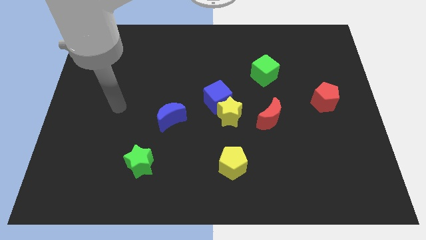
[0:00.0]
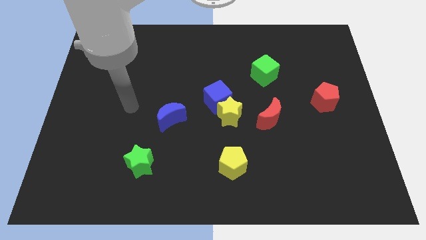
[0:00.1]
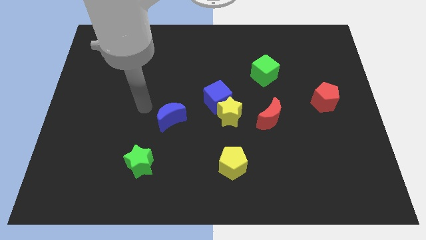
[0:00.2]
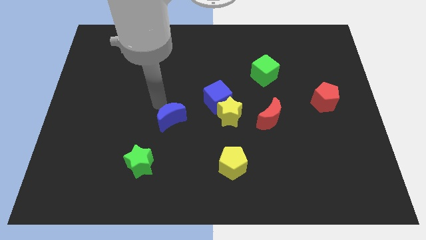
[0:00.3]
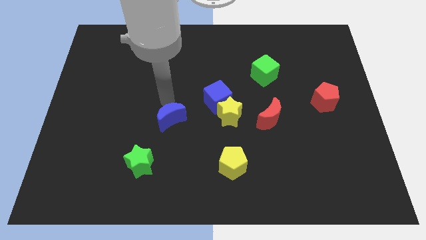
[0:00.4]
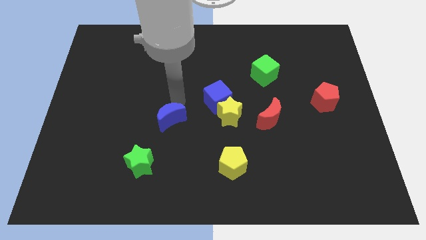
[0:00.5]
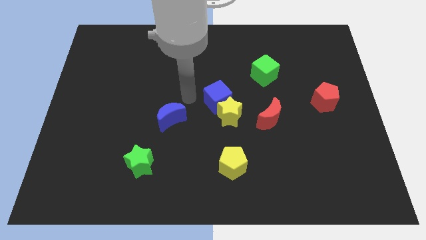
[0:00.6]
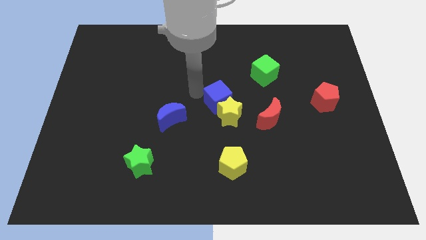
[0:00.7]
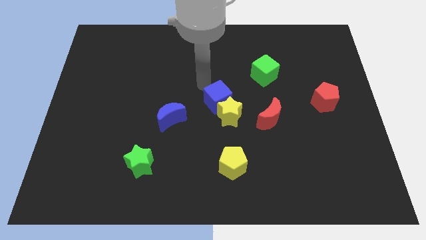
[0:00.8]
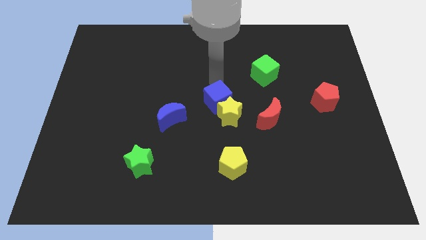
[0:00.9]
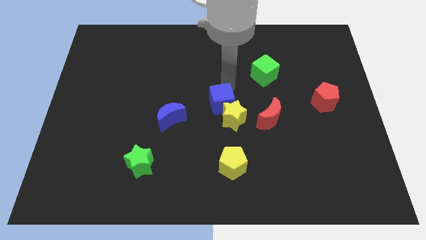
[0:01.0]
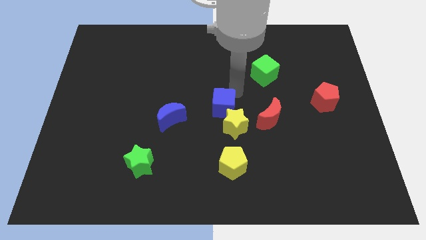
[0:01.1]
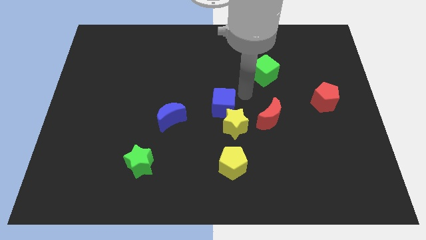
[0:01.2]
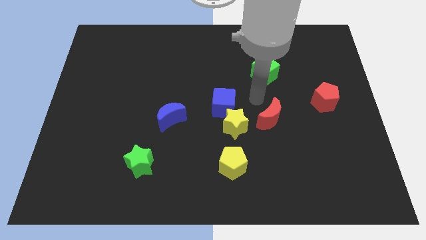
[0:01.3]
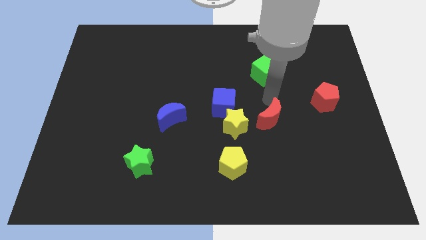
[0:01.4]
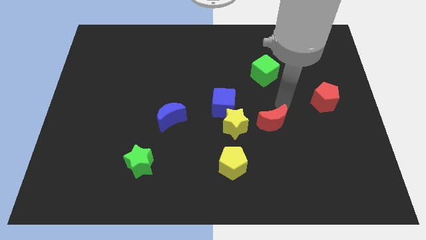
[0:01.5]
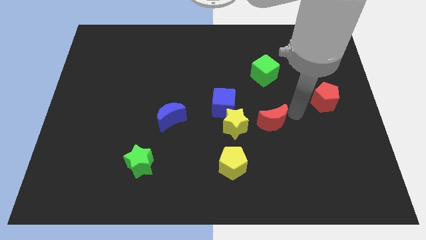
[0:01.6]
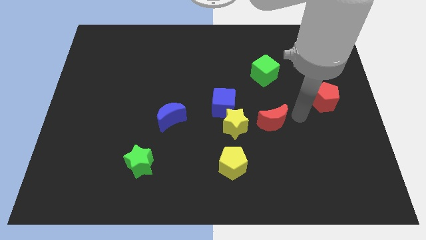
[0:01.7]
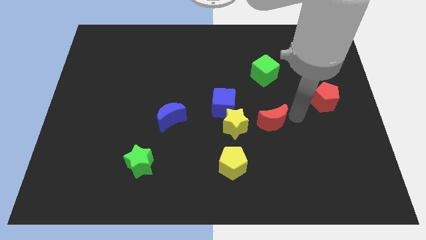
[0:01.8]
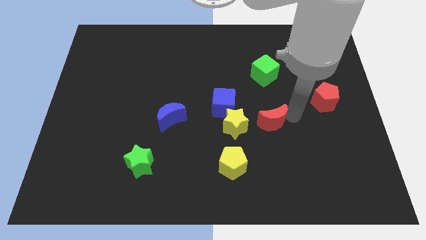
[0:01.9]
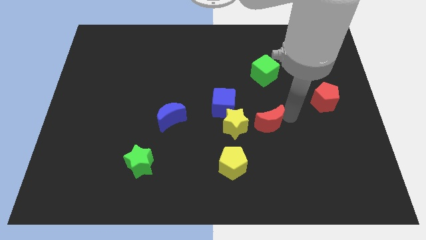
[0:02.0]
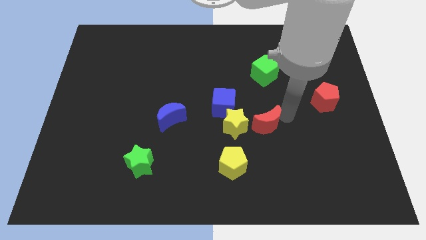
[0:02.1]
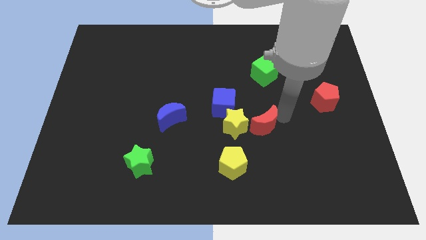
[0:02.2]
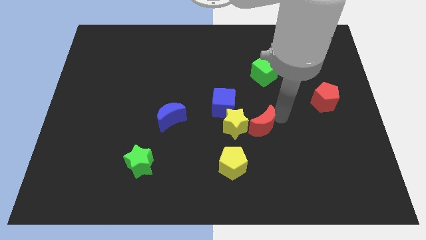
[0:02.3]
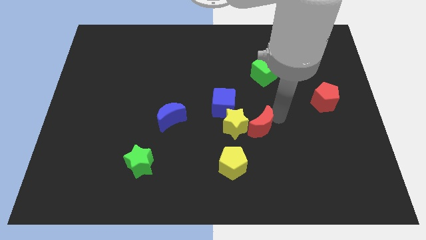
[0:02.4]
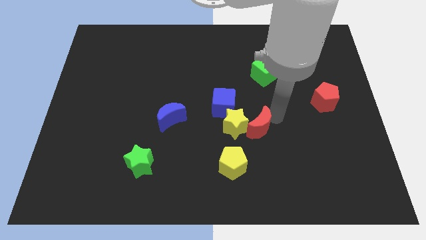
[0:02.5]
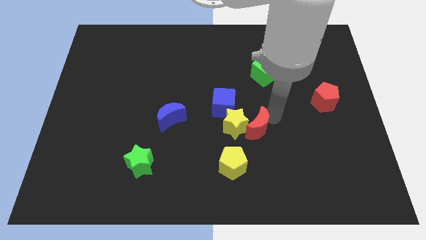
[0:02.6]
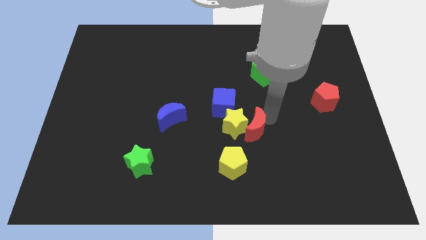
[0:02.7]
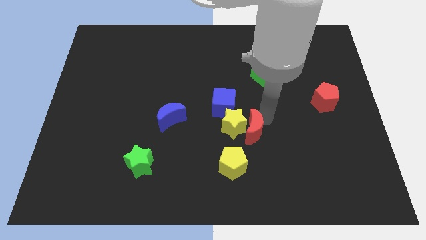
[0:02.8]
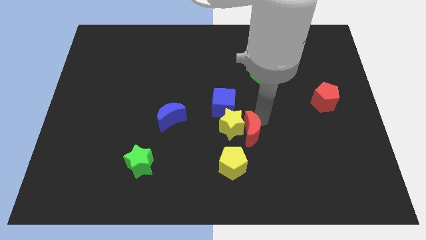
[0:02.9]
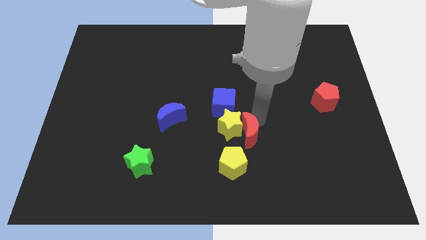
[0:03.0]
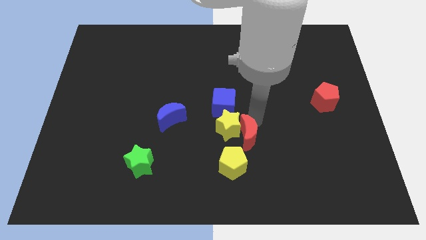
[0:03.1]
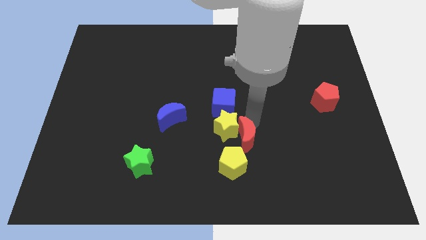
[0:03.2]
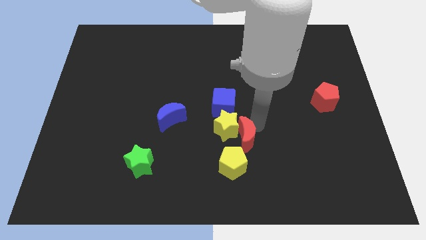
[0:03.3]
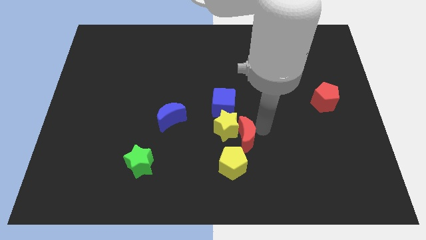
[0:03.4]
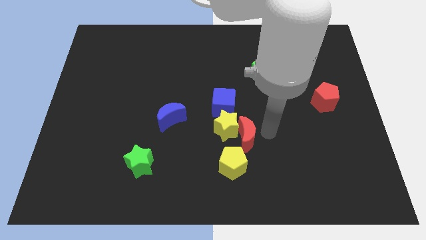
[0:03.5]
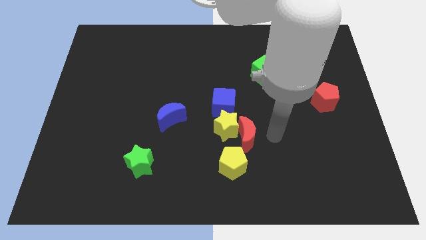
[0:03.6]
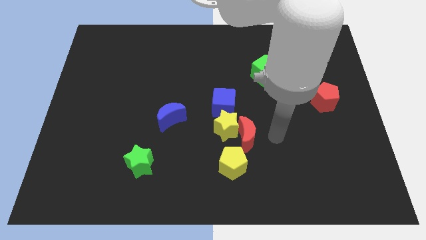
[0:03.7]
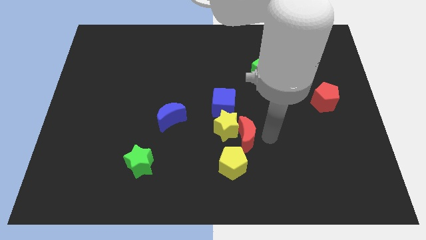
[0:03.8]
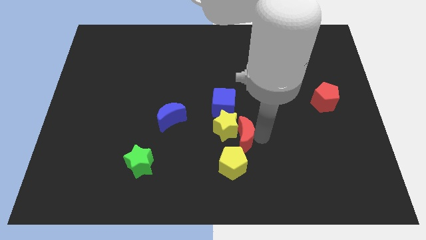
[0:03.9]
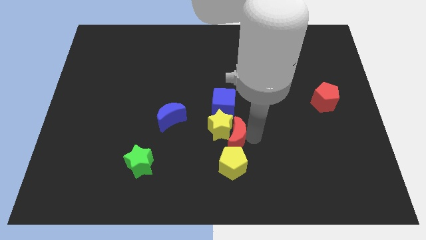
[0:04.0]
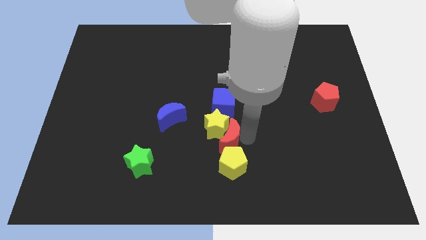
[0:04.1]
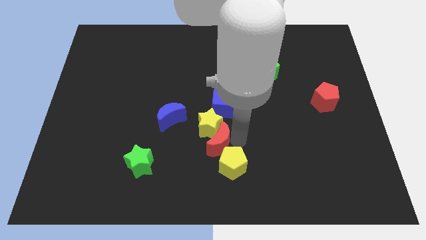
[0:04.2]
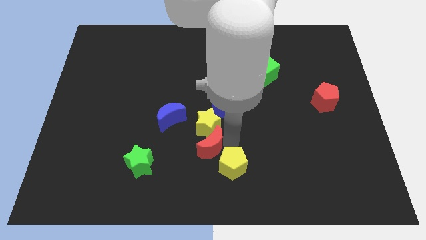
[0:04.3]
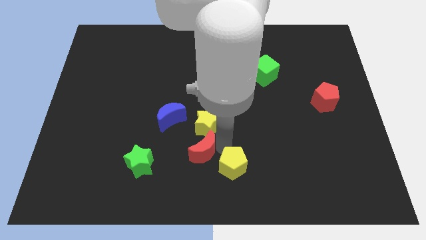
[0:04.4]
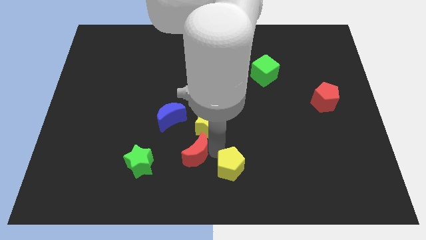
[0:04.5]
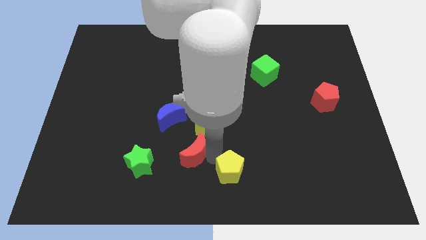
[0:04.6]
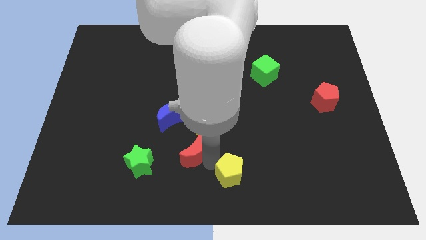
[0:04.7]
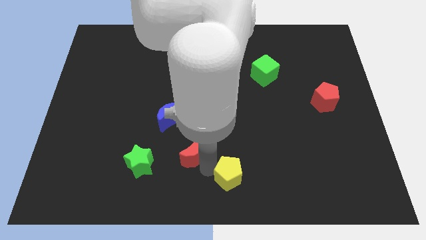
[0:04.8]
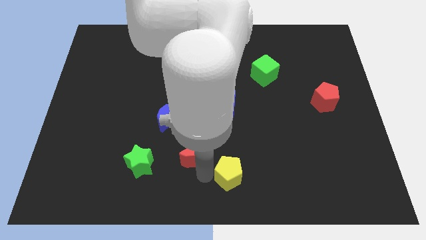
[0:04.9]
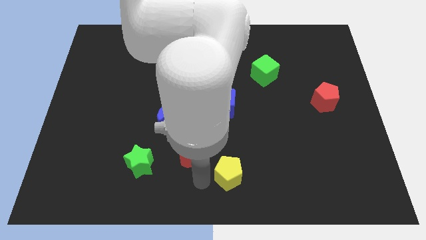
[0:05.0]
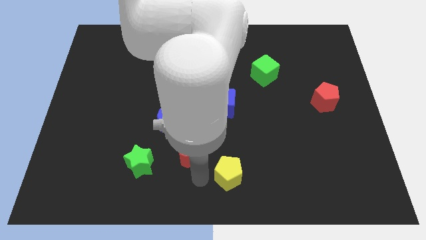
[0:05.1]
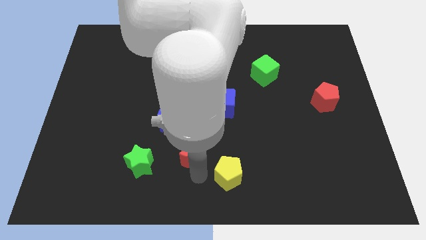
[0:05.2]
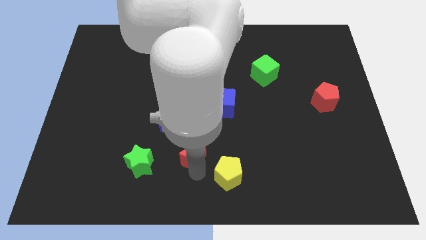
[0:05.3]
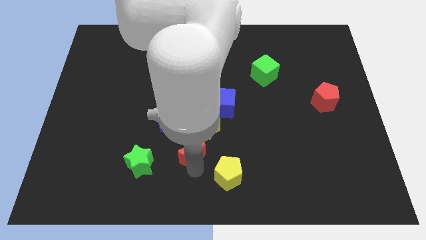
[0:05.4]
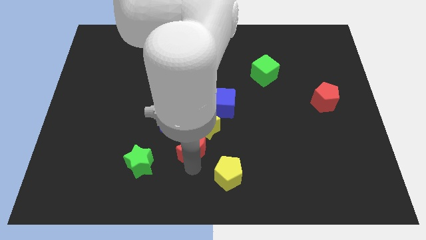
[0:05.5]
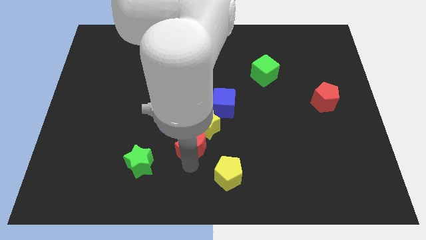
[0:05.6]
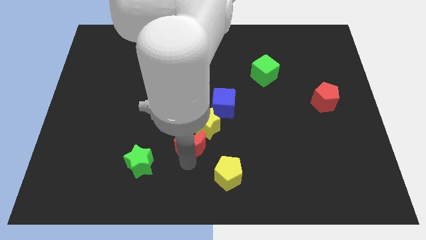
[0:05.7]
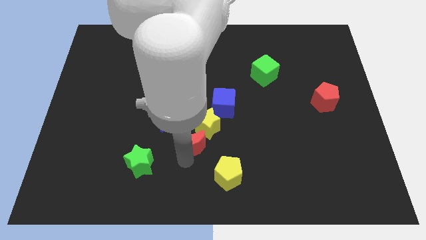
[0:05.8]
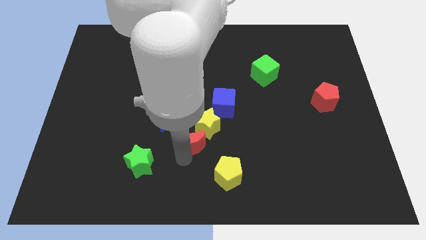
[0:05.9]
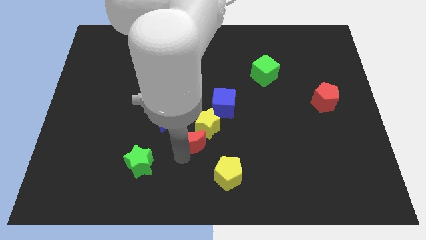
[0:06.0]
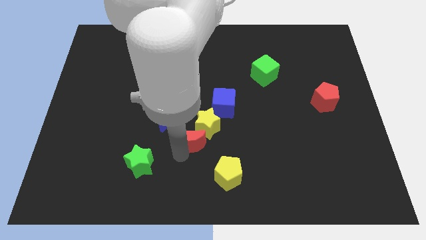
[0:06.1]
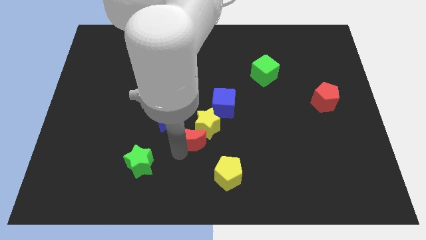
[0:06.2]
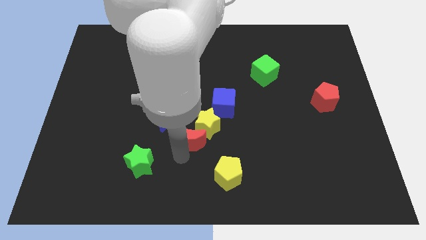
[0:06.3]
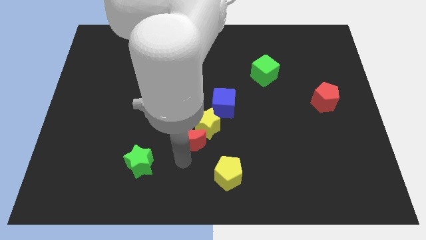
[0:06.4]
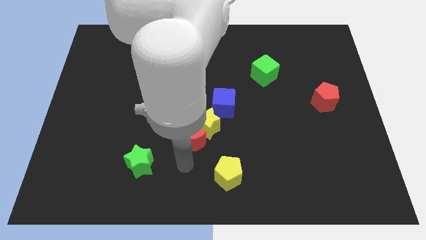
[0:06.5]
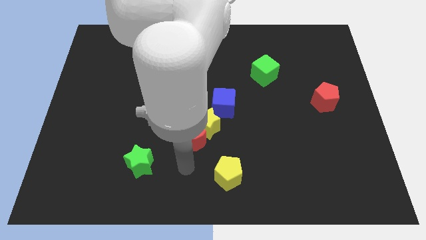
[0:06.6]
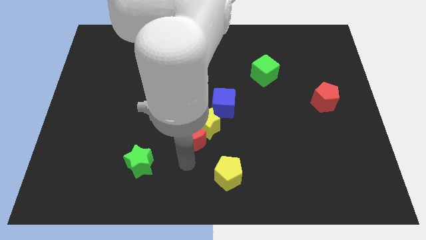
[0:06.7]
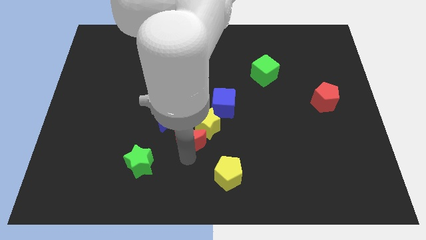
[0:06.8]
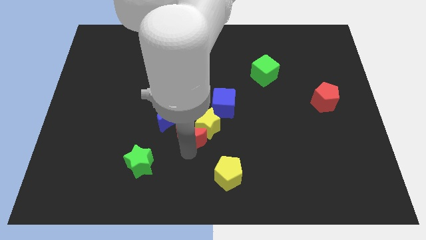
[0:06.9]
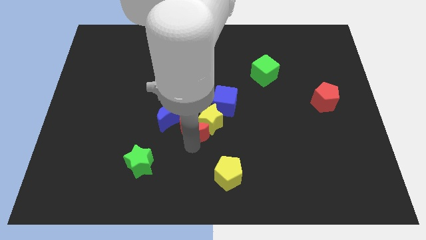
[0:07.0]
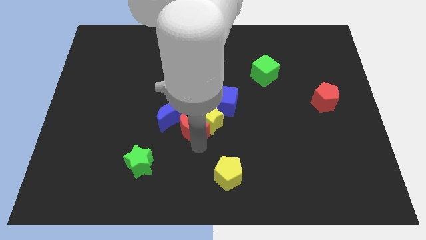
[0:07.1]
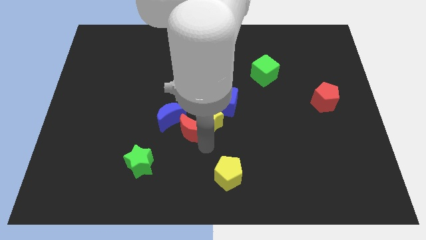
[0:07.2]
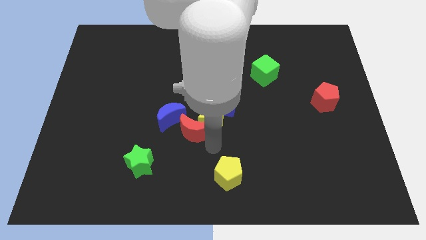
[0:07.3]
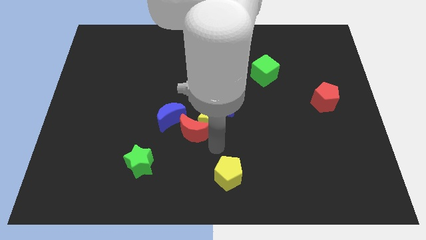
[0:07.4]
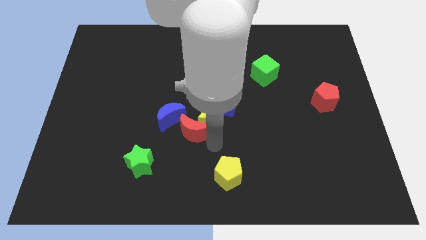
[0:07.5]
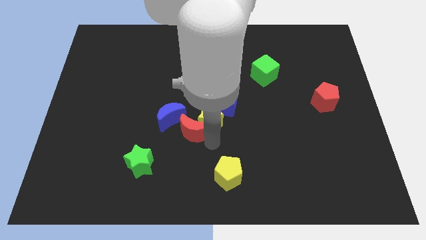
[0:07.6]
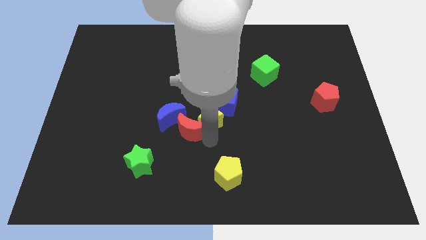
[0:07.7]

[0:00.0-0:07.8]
move the red moon towards the blue moon

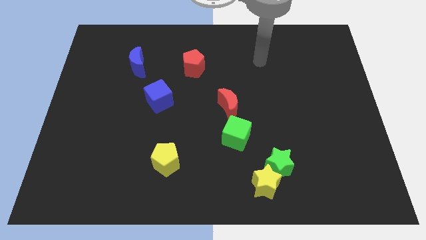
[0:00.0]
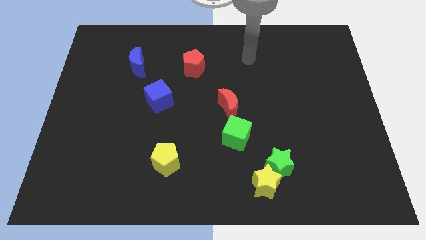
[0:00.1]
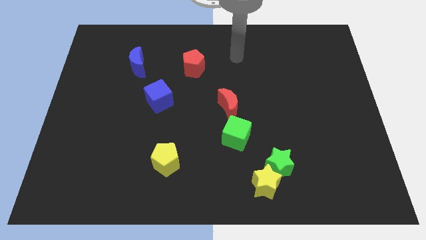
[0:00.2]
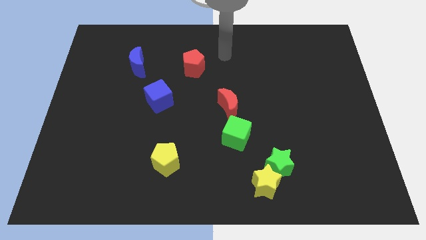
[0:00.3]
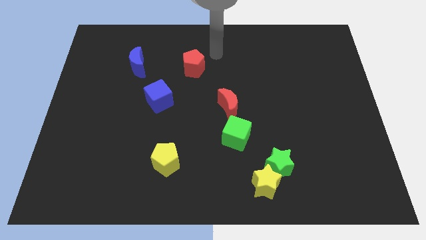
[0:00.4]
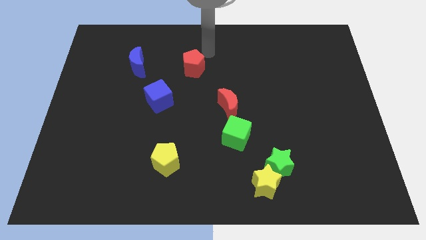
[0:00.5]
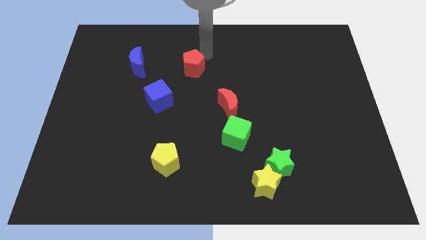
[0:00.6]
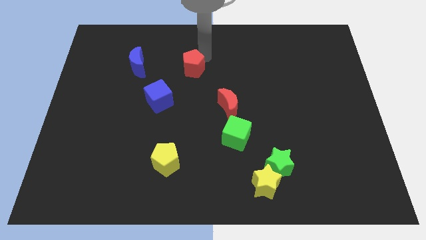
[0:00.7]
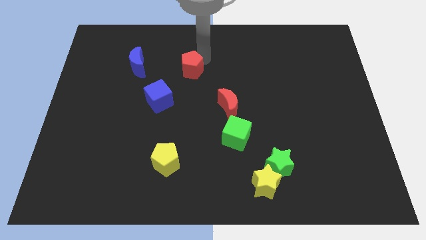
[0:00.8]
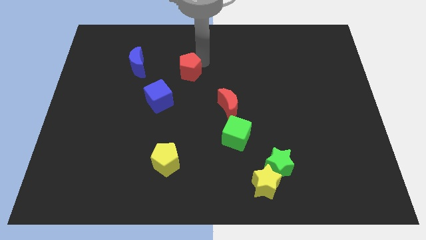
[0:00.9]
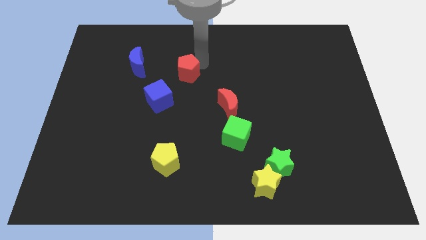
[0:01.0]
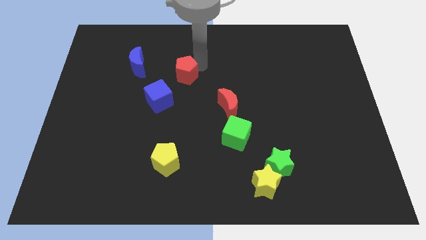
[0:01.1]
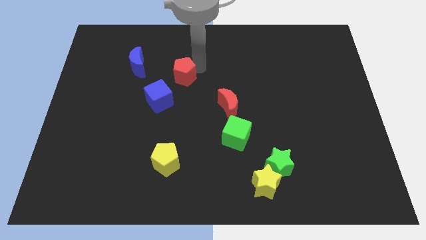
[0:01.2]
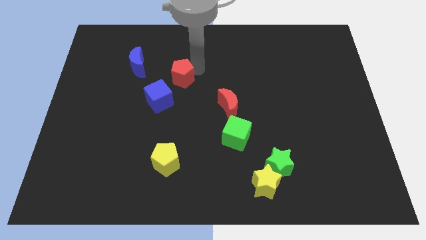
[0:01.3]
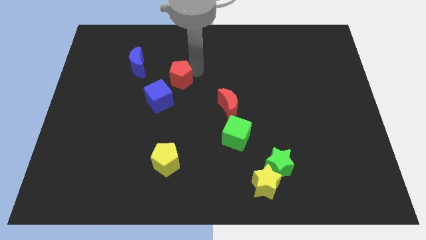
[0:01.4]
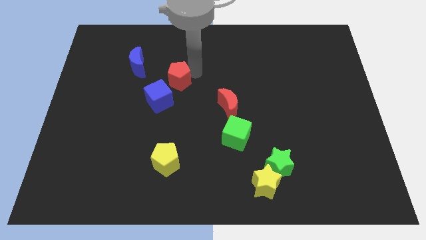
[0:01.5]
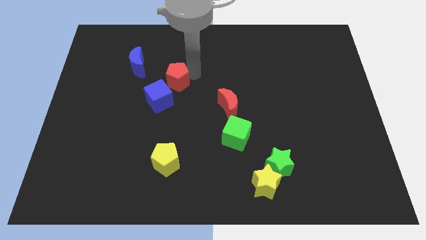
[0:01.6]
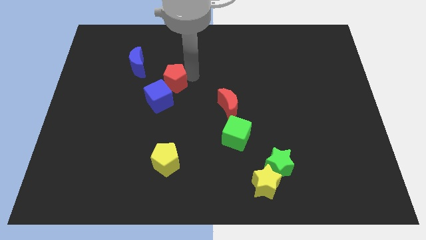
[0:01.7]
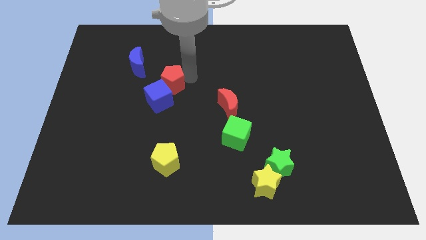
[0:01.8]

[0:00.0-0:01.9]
put the red pentagon towards the blue cube
